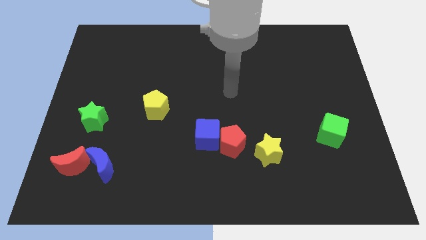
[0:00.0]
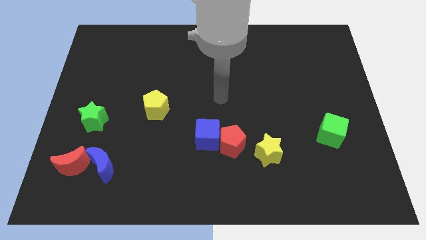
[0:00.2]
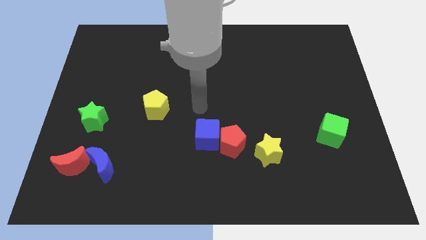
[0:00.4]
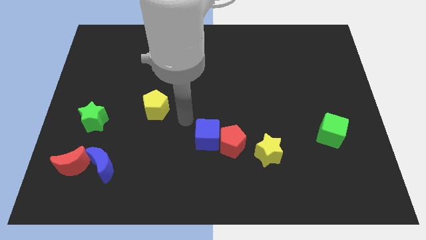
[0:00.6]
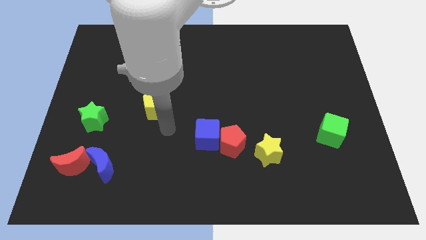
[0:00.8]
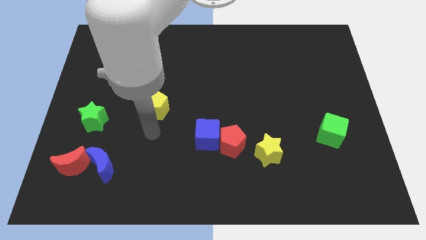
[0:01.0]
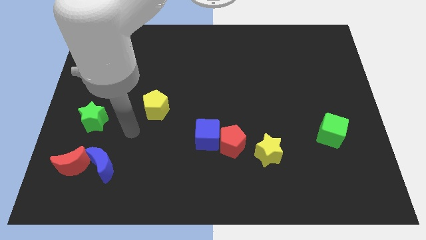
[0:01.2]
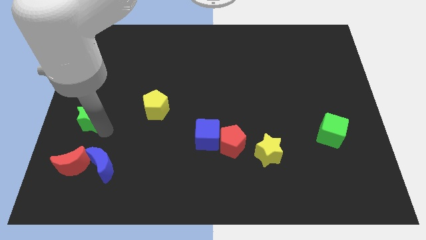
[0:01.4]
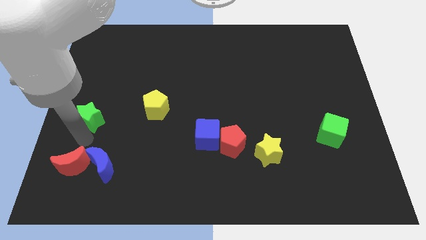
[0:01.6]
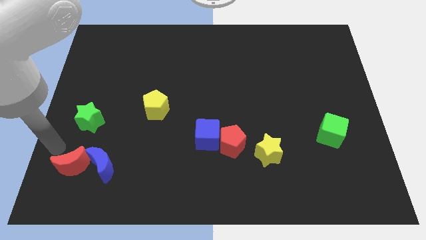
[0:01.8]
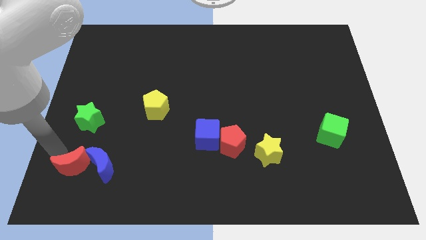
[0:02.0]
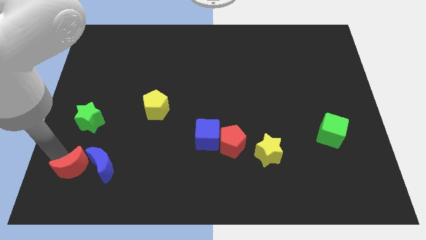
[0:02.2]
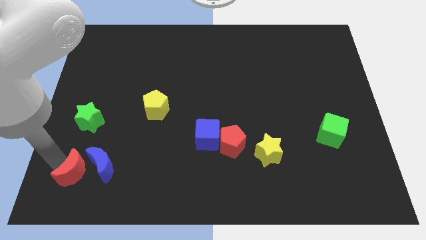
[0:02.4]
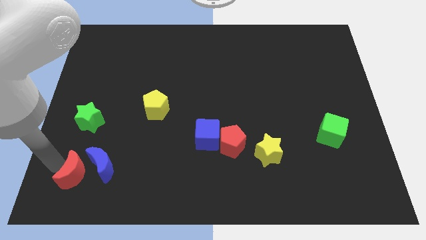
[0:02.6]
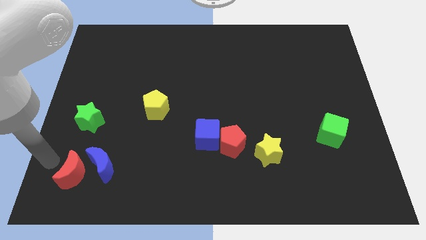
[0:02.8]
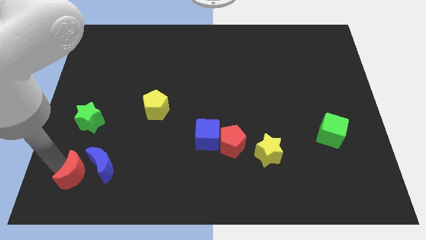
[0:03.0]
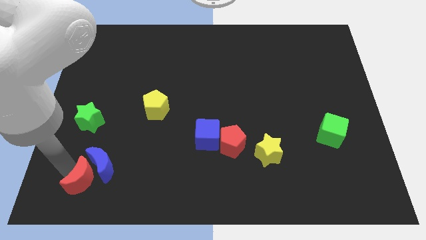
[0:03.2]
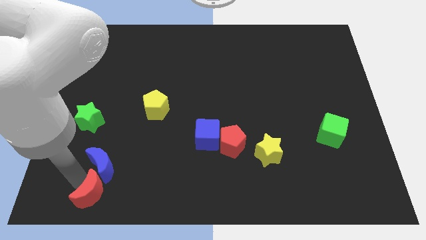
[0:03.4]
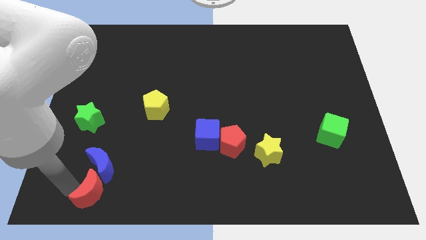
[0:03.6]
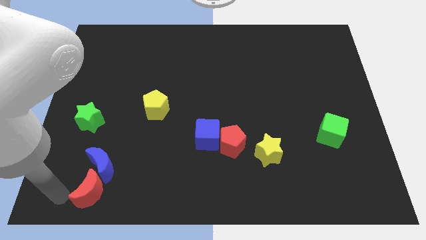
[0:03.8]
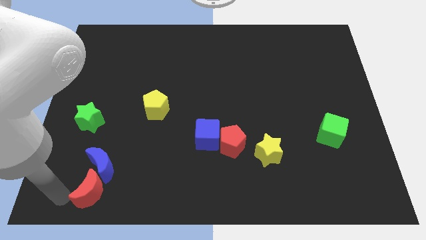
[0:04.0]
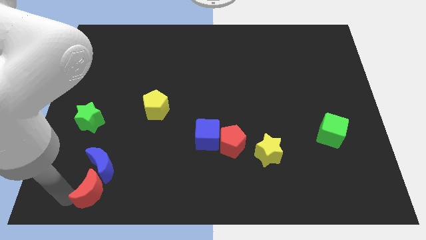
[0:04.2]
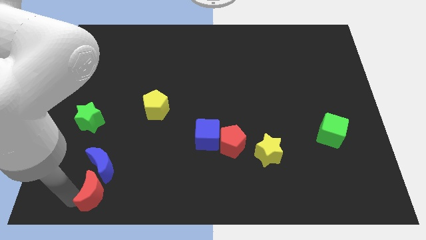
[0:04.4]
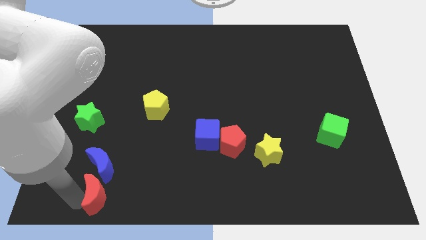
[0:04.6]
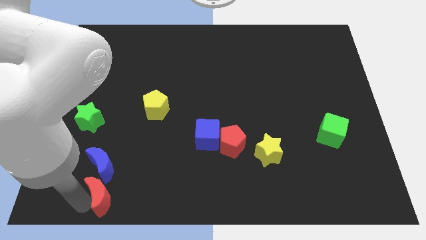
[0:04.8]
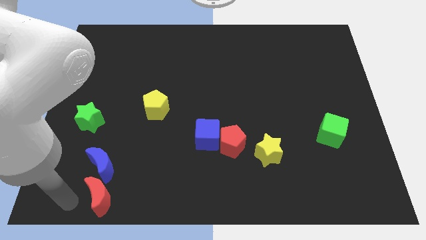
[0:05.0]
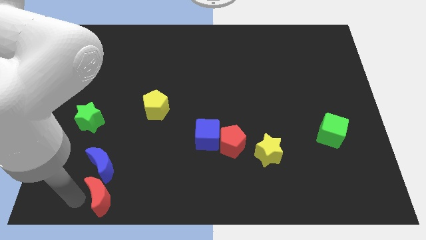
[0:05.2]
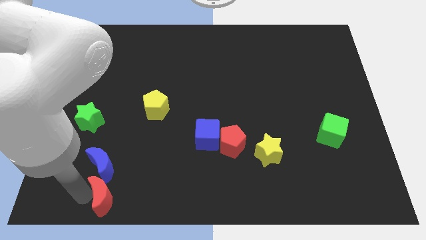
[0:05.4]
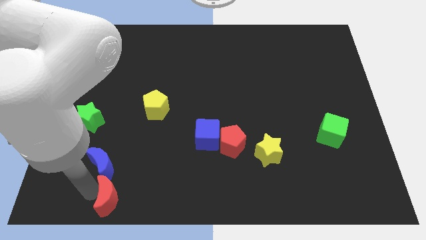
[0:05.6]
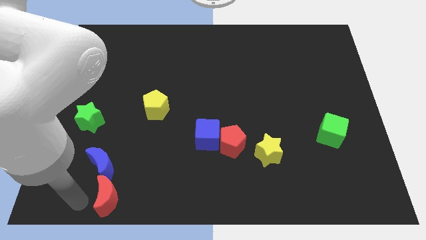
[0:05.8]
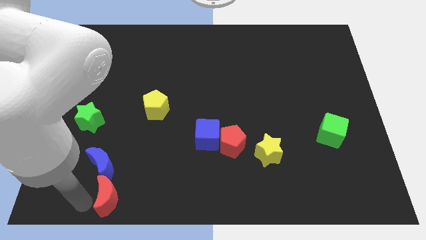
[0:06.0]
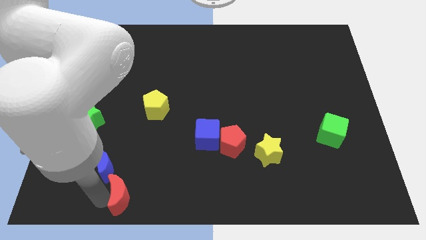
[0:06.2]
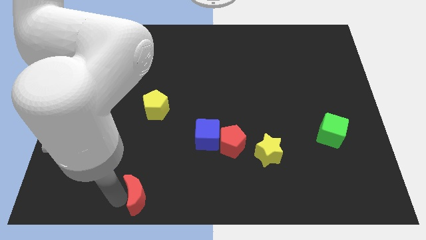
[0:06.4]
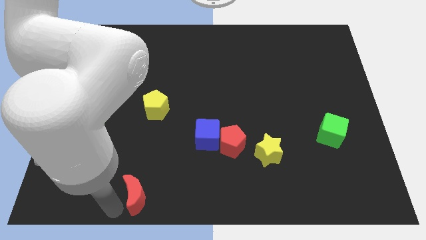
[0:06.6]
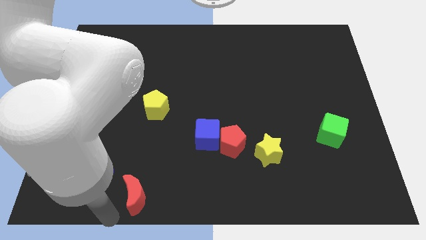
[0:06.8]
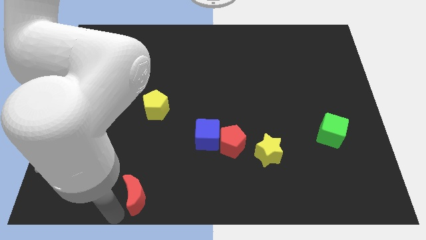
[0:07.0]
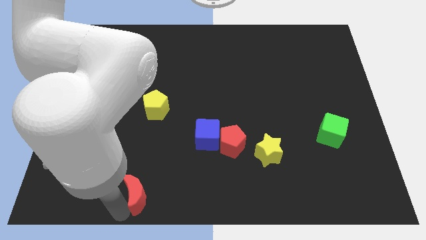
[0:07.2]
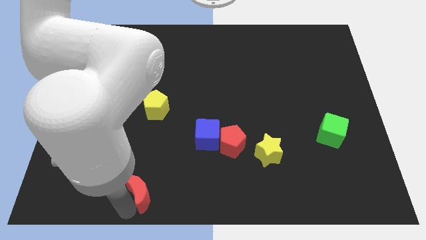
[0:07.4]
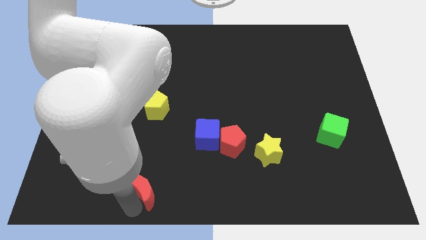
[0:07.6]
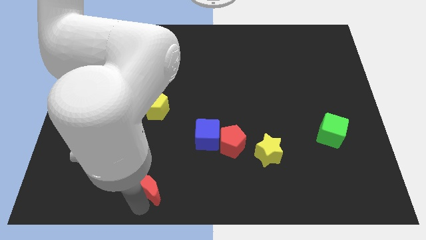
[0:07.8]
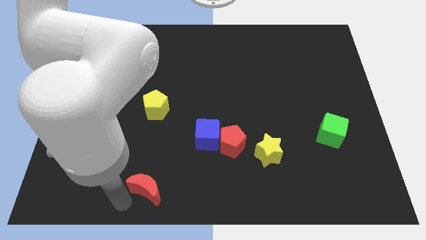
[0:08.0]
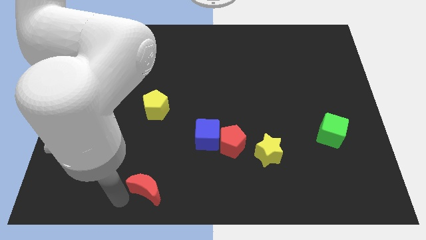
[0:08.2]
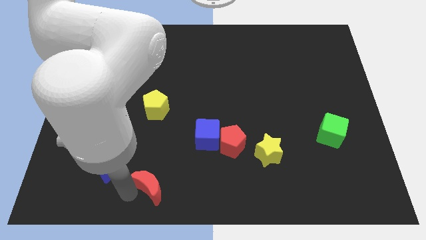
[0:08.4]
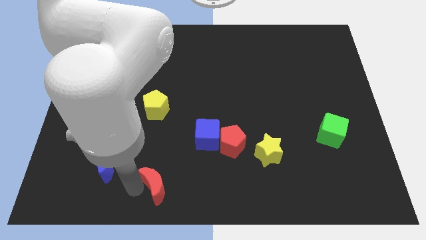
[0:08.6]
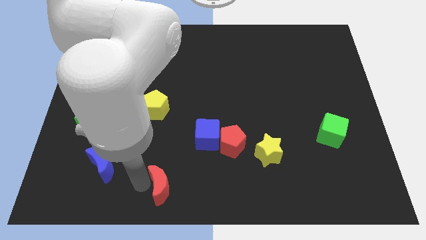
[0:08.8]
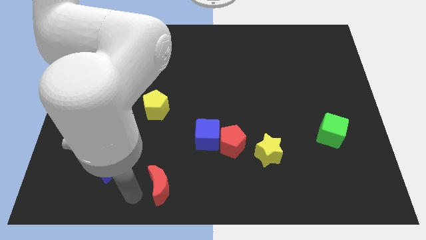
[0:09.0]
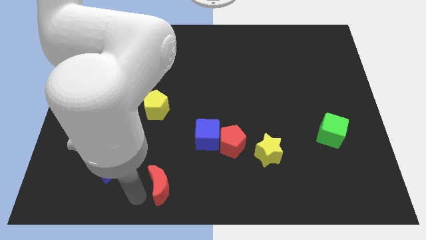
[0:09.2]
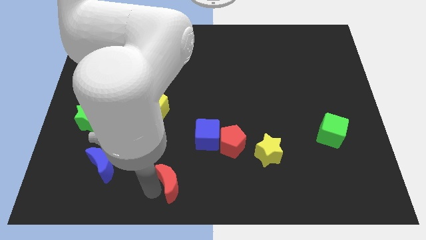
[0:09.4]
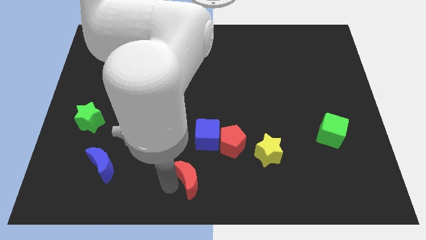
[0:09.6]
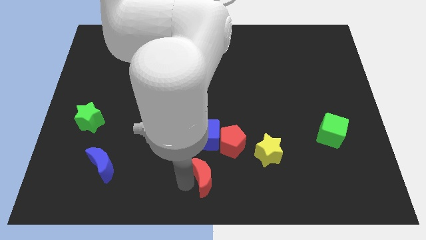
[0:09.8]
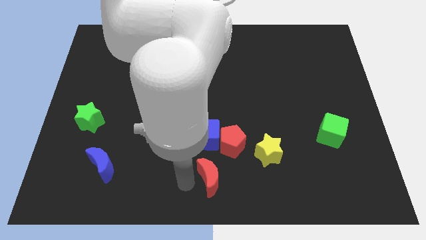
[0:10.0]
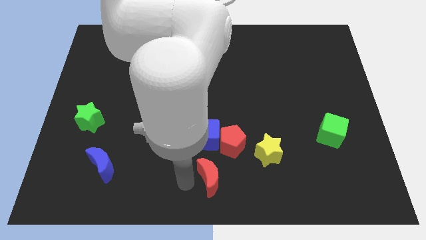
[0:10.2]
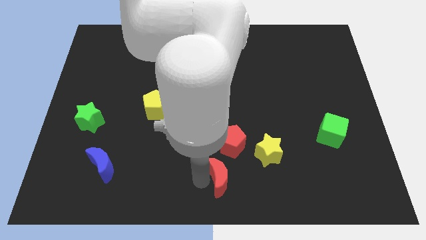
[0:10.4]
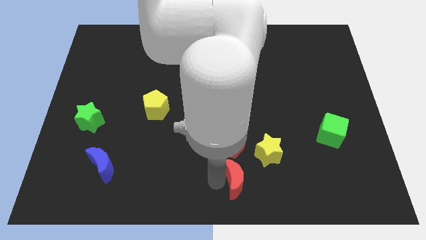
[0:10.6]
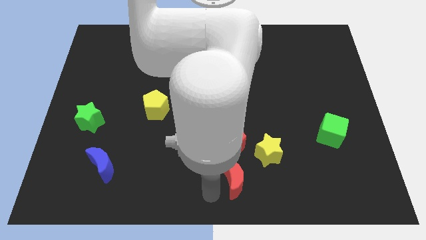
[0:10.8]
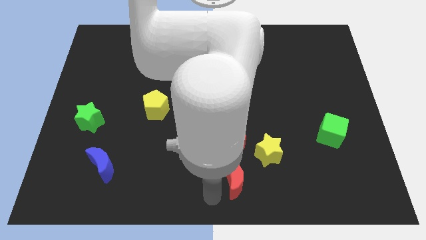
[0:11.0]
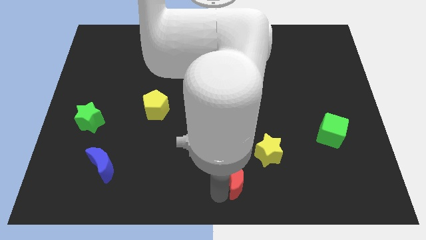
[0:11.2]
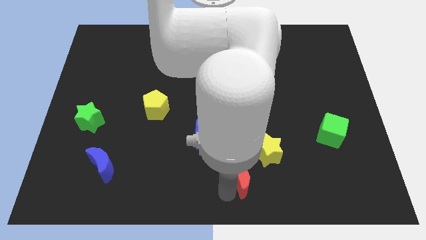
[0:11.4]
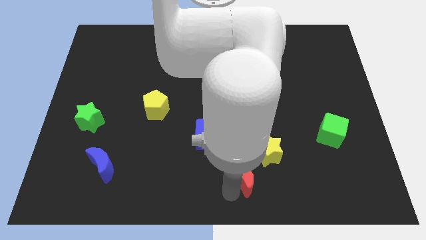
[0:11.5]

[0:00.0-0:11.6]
push the red moon to the bottom right of the red pentagon

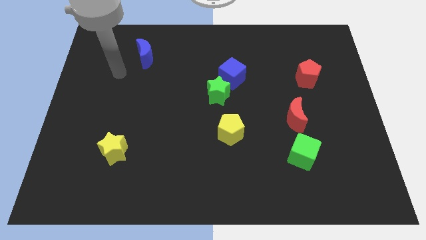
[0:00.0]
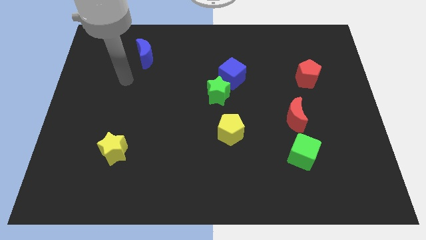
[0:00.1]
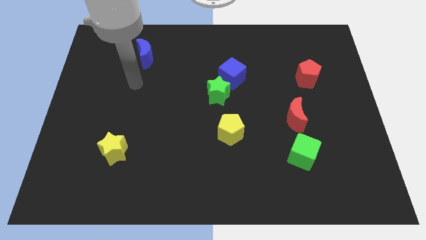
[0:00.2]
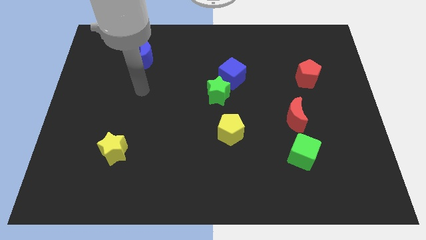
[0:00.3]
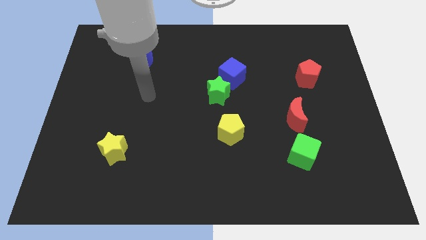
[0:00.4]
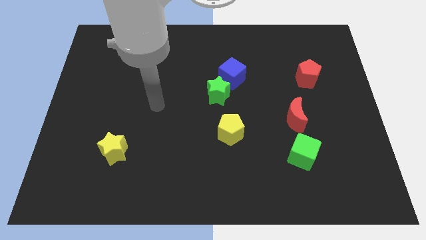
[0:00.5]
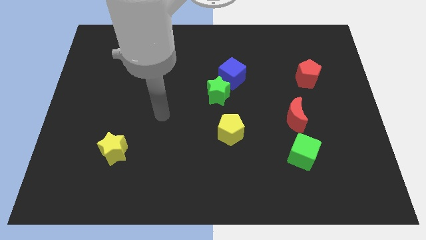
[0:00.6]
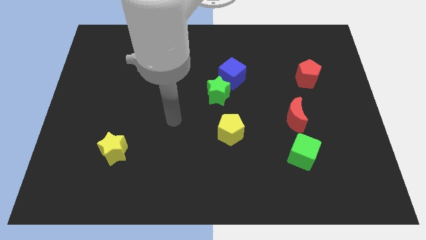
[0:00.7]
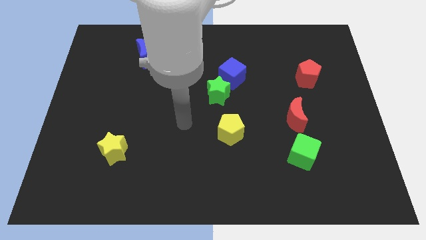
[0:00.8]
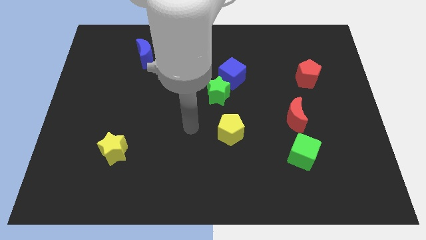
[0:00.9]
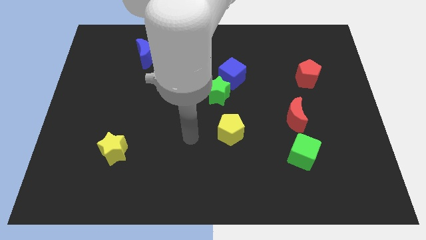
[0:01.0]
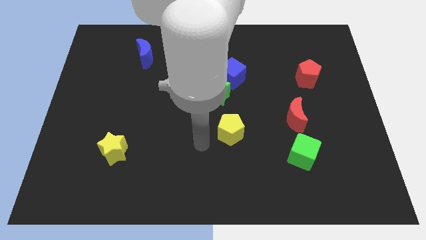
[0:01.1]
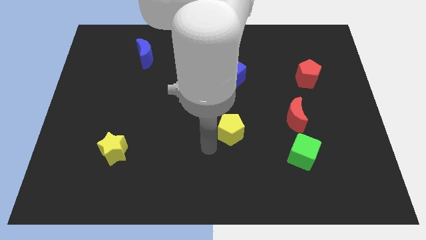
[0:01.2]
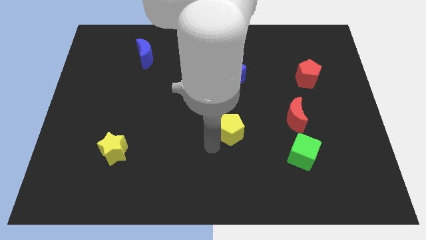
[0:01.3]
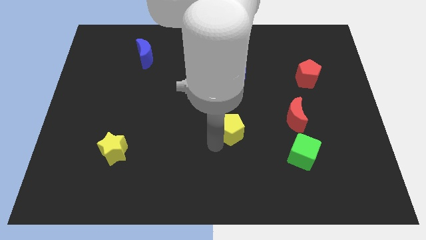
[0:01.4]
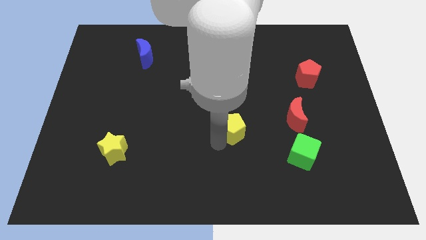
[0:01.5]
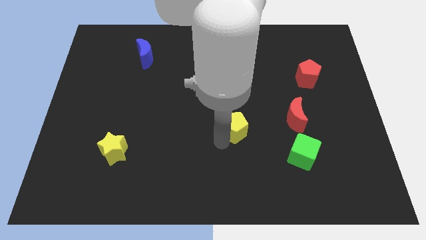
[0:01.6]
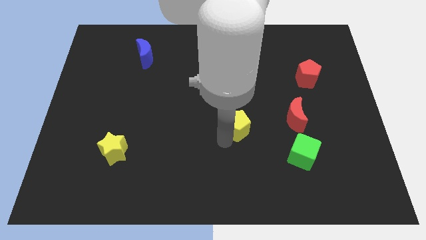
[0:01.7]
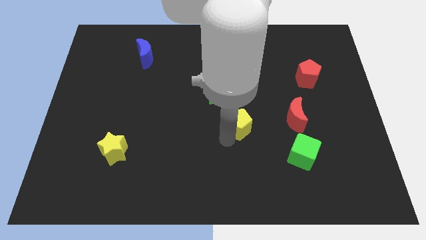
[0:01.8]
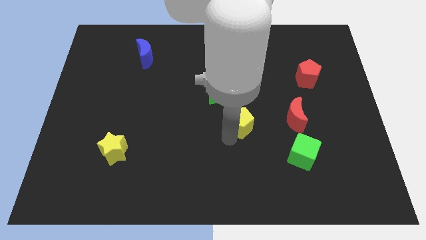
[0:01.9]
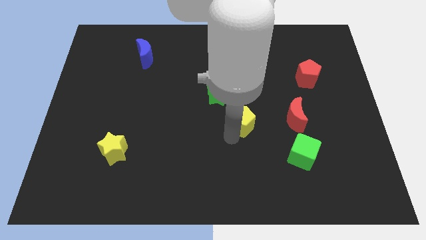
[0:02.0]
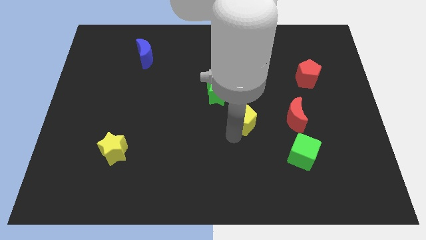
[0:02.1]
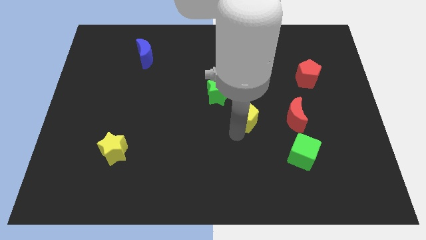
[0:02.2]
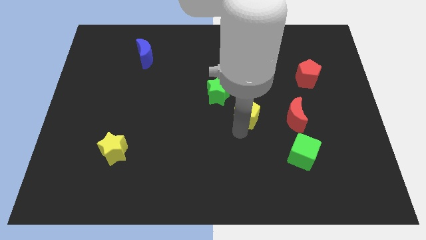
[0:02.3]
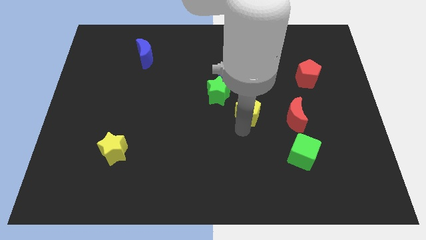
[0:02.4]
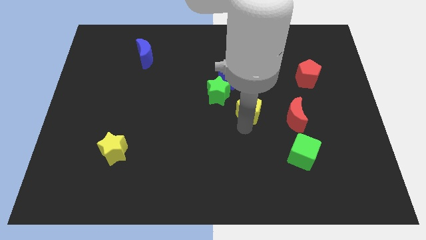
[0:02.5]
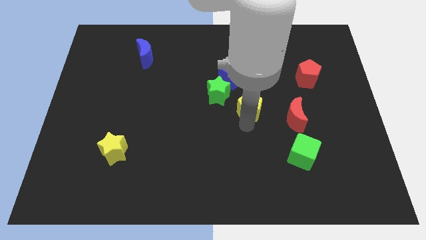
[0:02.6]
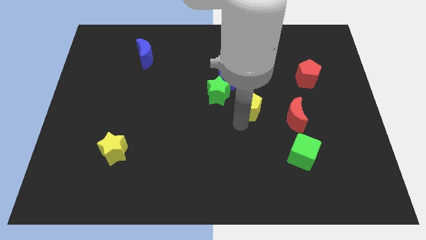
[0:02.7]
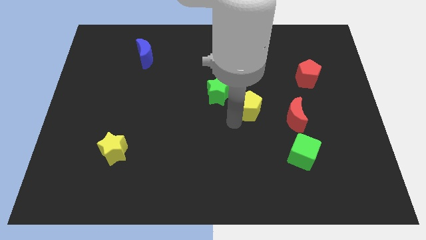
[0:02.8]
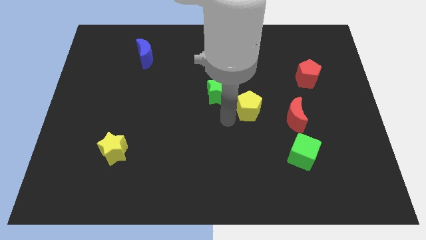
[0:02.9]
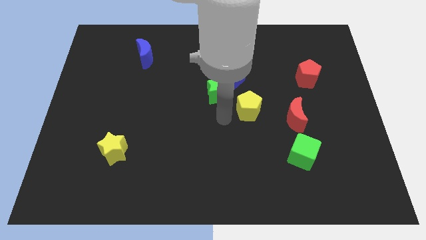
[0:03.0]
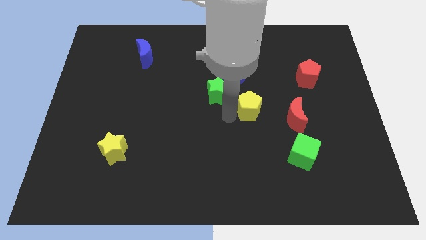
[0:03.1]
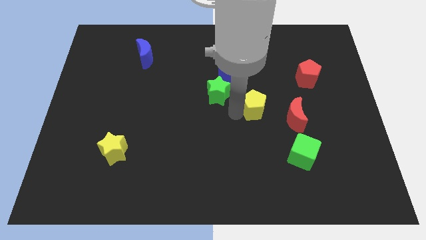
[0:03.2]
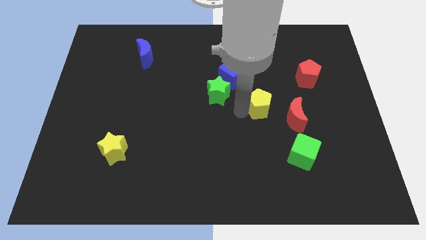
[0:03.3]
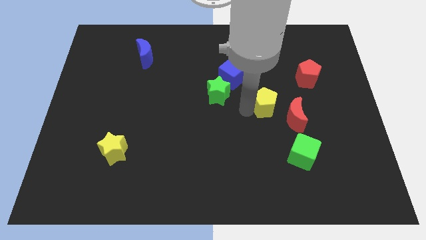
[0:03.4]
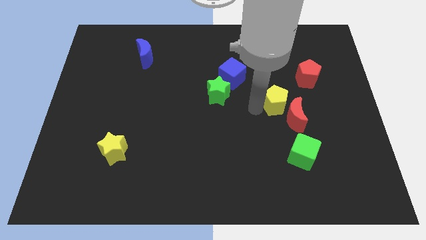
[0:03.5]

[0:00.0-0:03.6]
move the yellow pentagon to the top of the red moon
